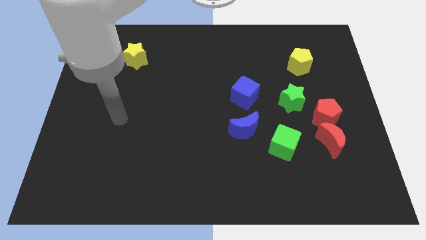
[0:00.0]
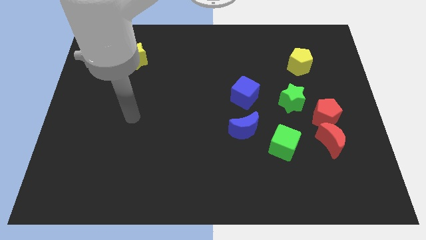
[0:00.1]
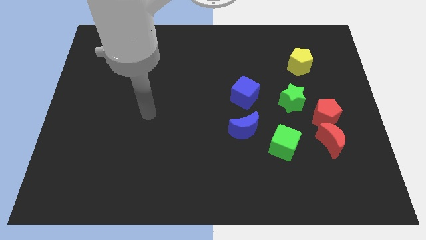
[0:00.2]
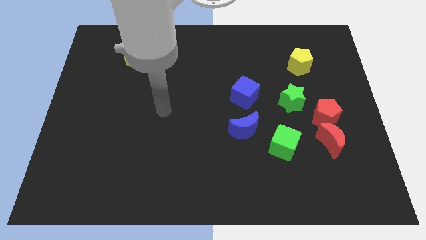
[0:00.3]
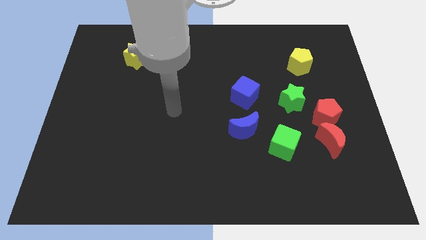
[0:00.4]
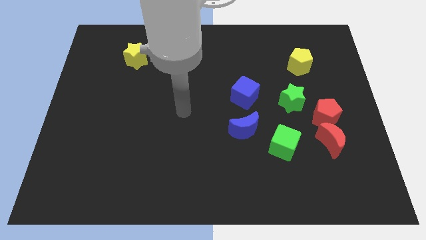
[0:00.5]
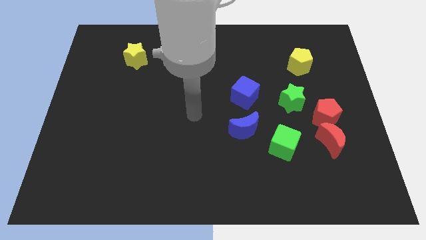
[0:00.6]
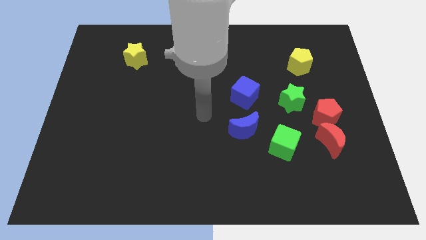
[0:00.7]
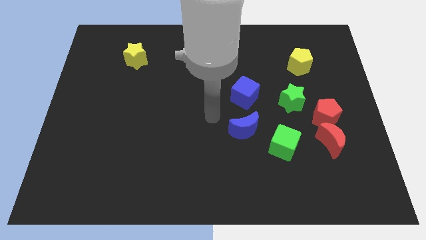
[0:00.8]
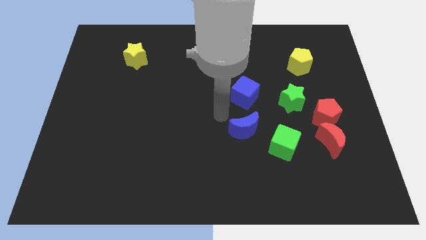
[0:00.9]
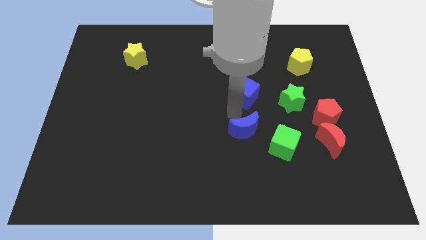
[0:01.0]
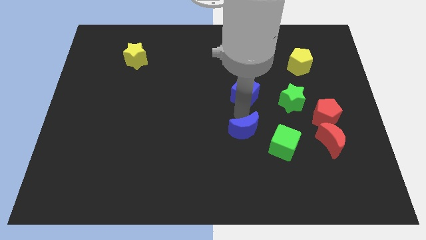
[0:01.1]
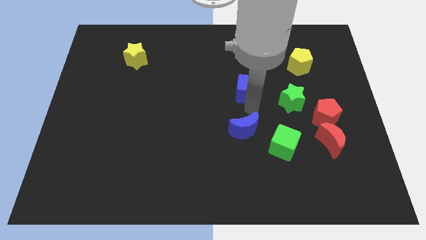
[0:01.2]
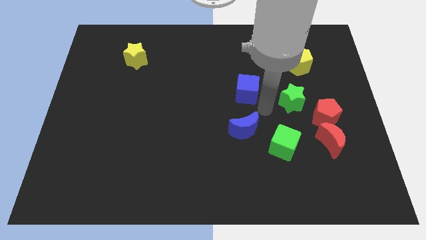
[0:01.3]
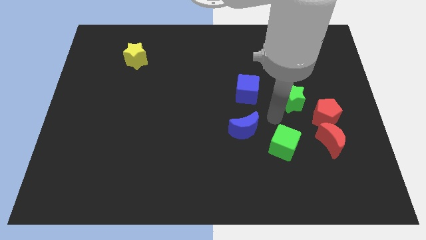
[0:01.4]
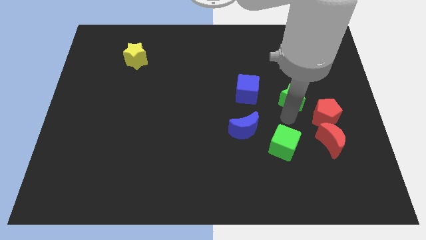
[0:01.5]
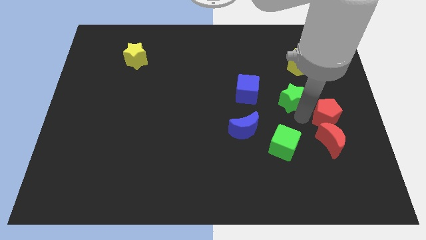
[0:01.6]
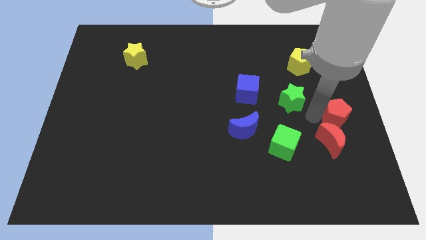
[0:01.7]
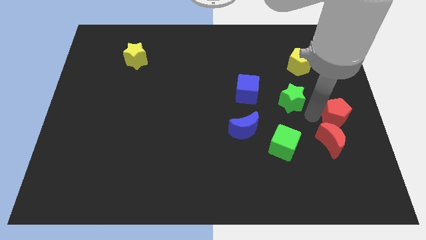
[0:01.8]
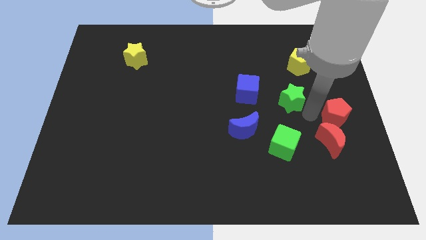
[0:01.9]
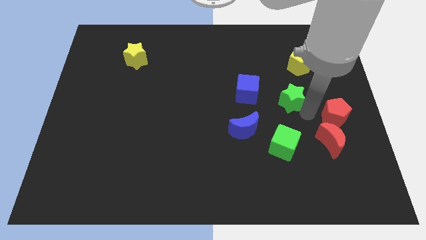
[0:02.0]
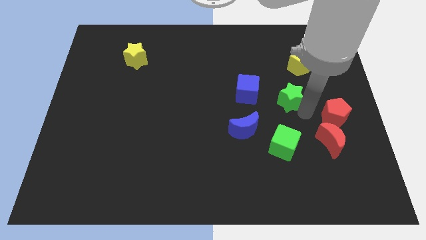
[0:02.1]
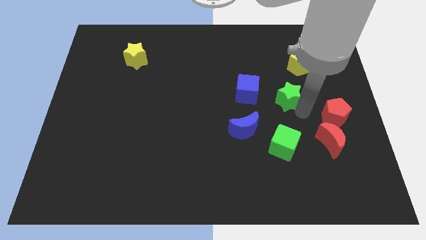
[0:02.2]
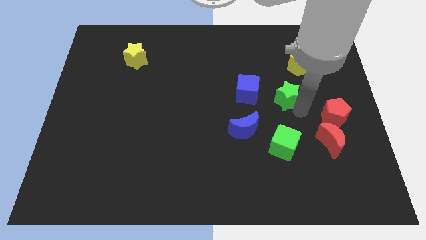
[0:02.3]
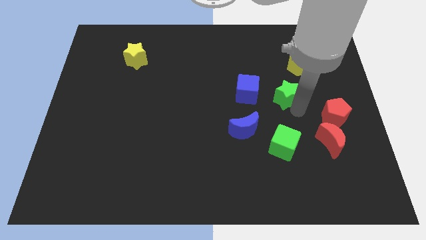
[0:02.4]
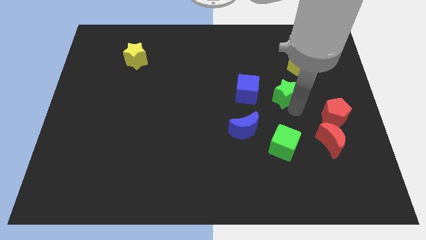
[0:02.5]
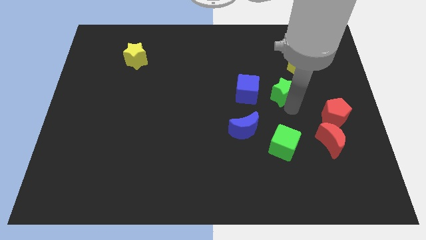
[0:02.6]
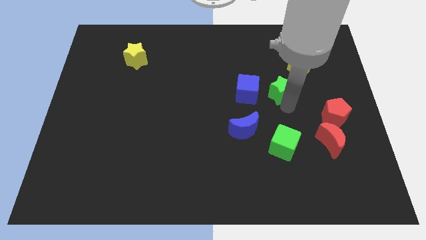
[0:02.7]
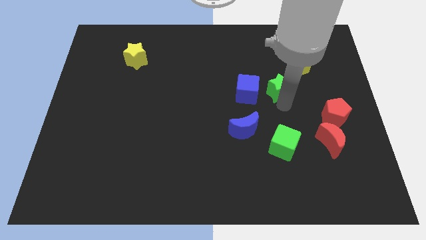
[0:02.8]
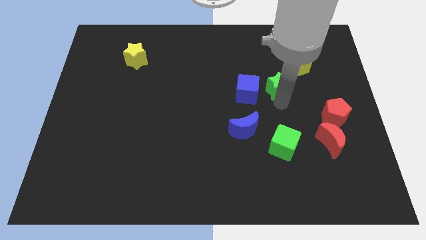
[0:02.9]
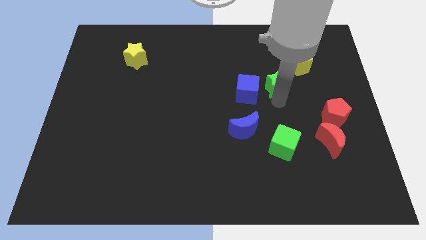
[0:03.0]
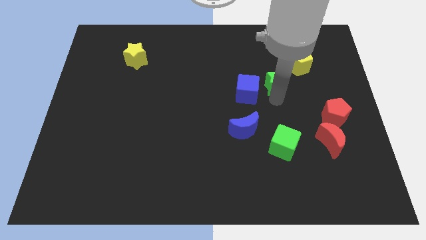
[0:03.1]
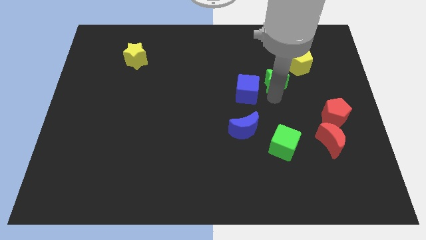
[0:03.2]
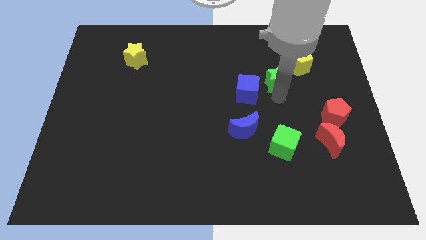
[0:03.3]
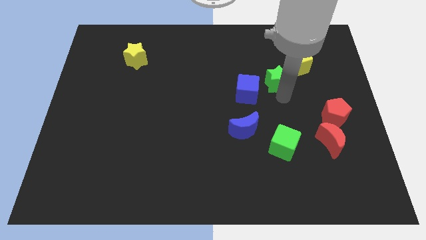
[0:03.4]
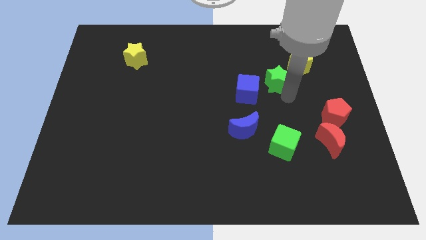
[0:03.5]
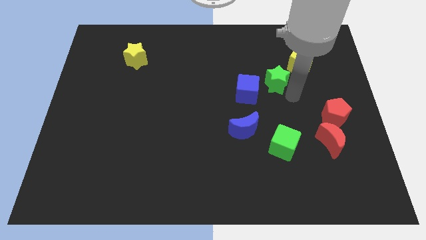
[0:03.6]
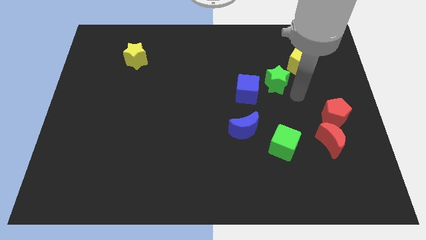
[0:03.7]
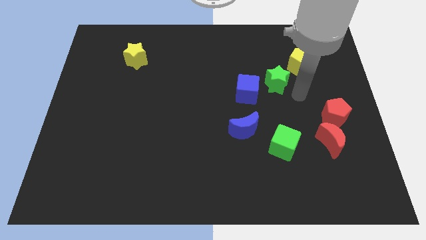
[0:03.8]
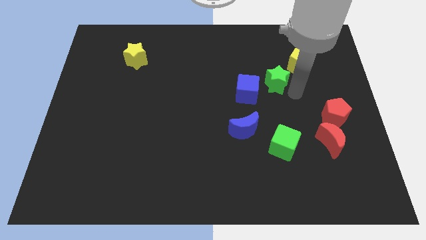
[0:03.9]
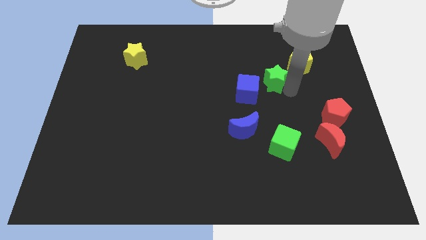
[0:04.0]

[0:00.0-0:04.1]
slide the green star diagonally upwards and to the left a bit

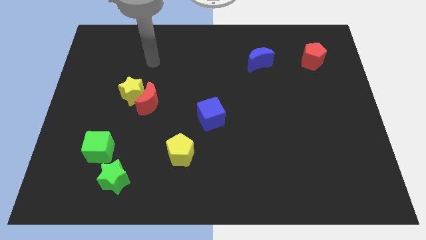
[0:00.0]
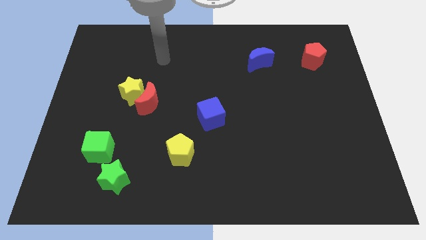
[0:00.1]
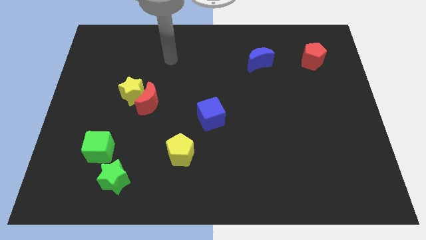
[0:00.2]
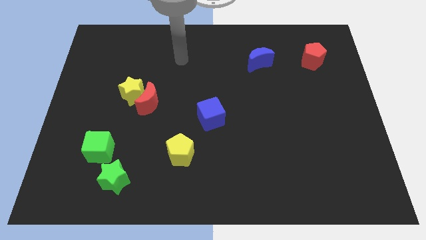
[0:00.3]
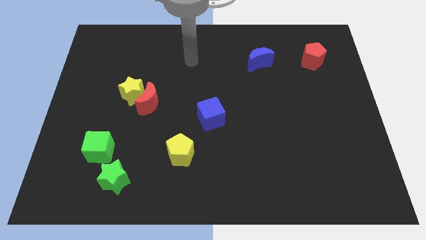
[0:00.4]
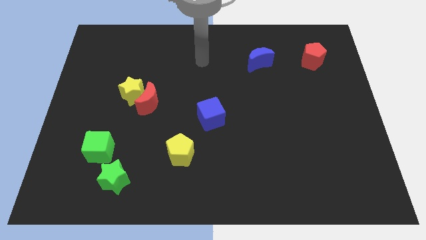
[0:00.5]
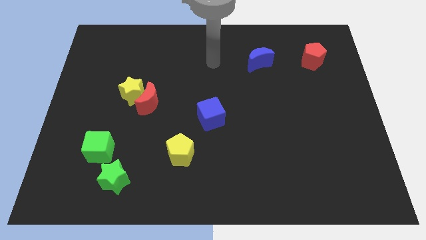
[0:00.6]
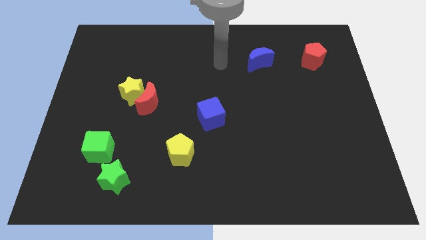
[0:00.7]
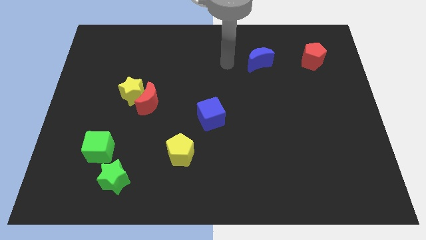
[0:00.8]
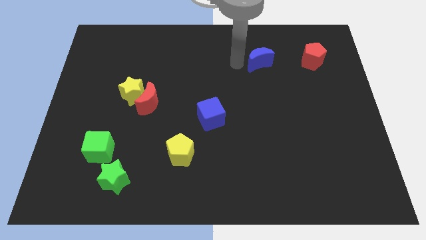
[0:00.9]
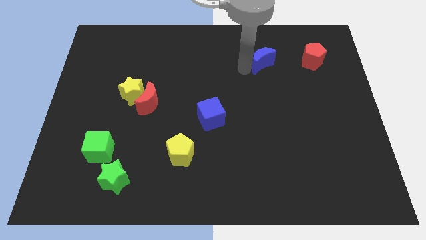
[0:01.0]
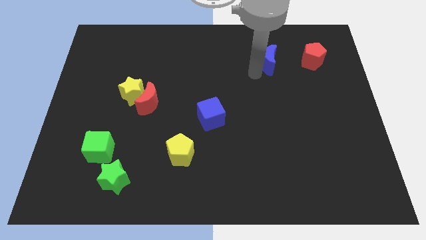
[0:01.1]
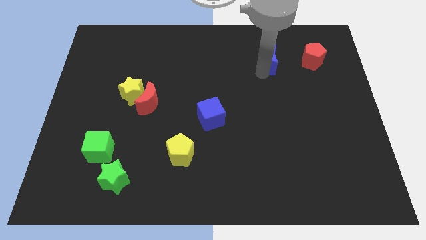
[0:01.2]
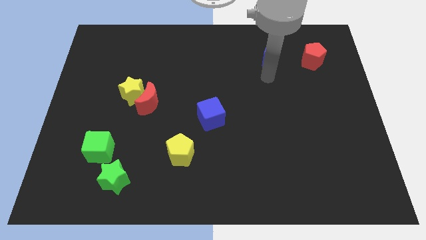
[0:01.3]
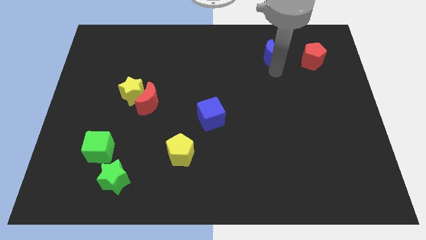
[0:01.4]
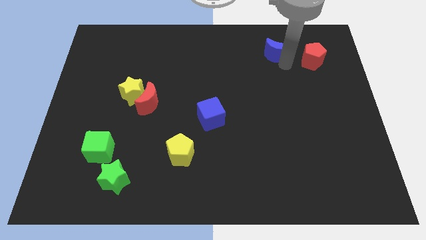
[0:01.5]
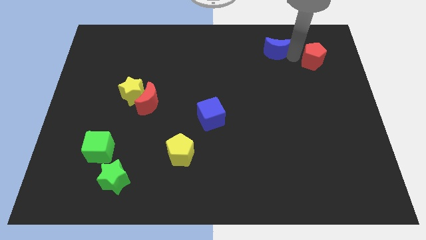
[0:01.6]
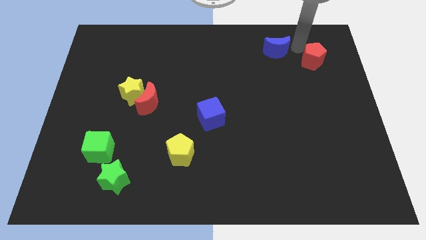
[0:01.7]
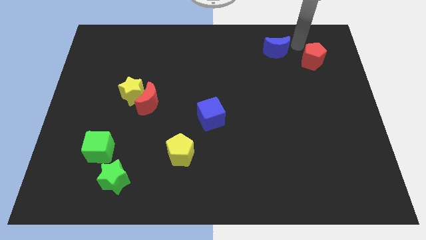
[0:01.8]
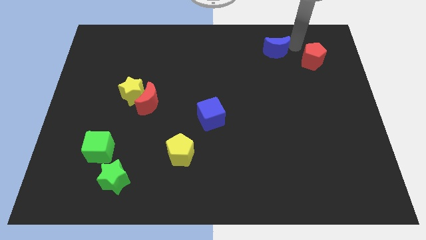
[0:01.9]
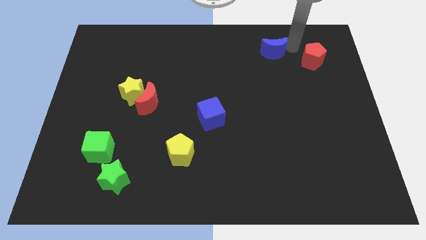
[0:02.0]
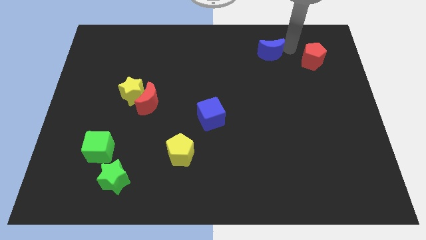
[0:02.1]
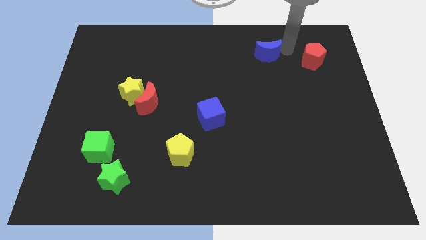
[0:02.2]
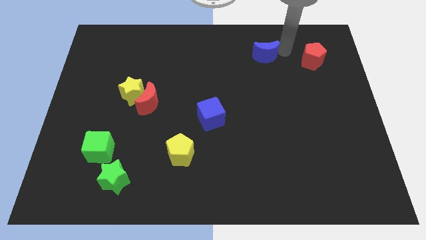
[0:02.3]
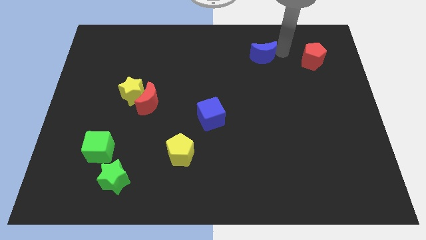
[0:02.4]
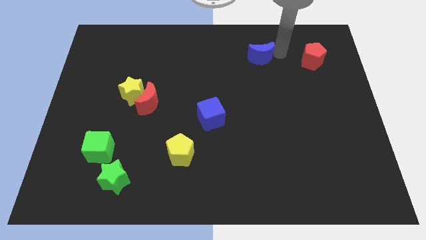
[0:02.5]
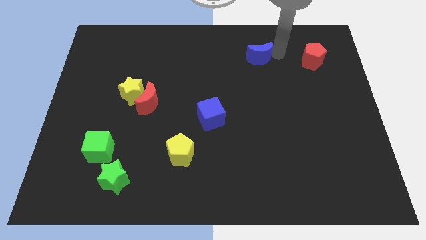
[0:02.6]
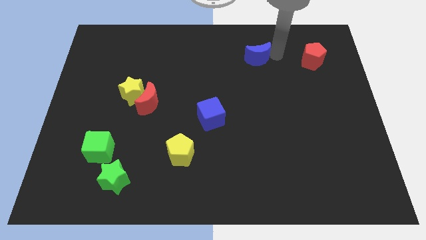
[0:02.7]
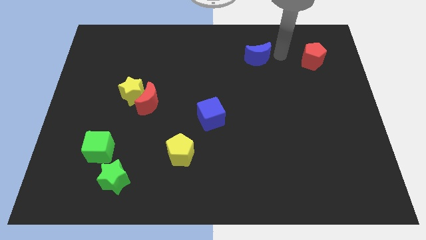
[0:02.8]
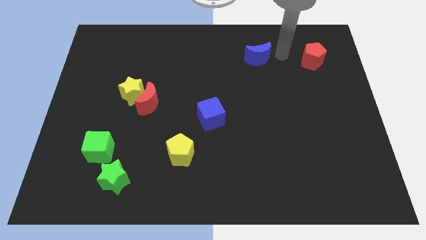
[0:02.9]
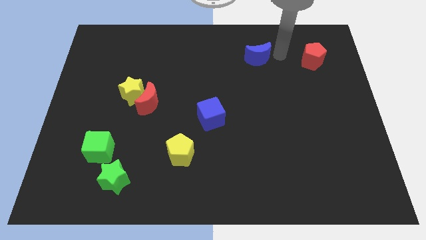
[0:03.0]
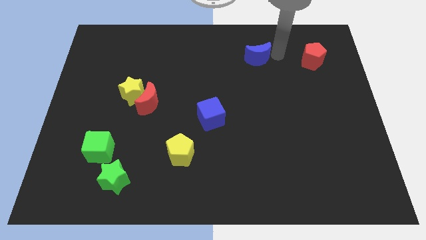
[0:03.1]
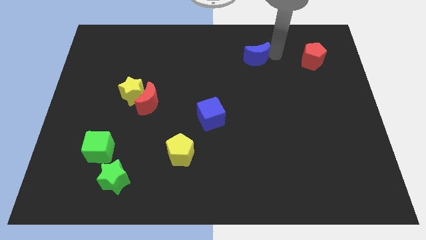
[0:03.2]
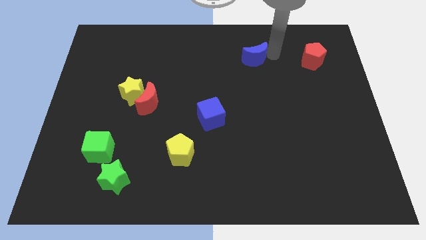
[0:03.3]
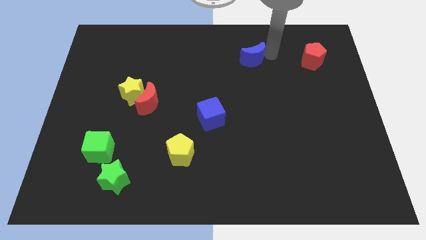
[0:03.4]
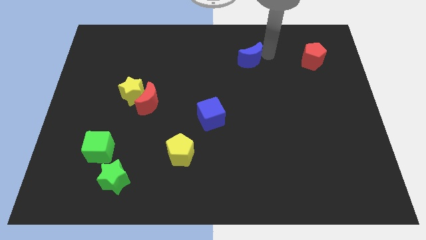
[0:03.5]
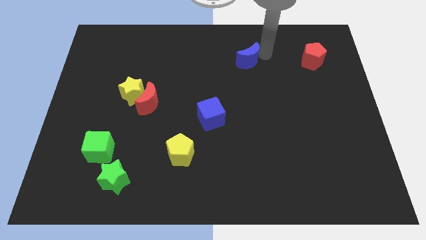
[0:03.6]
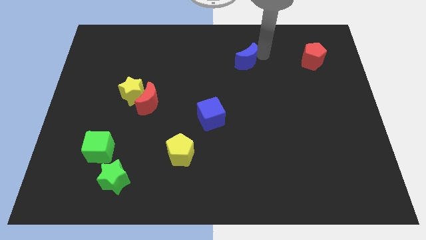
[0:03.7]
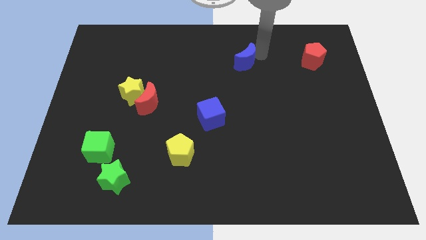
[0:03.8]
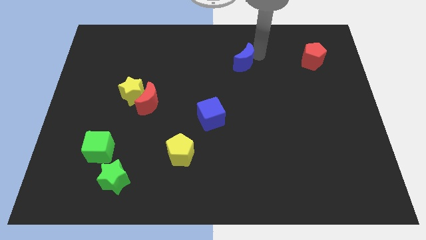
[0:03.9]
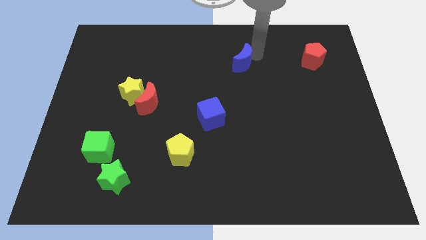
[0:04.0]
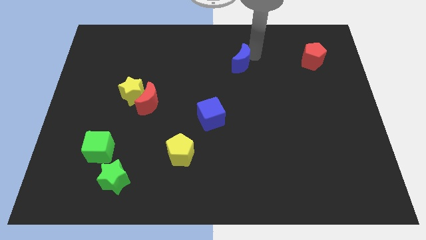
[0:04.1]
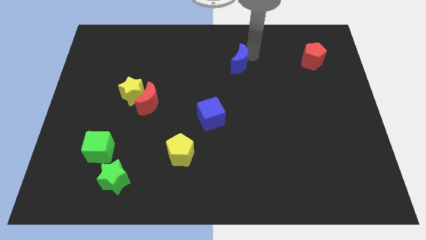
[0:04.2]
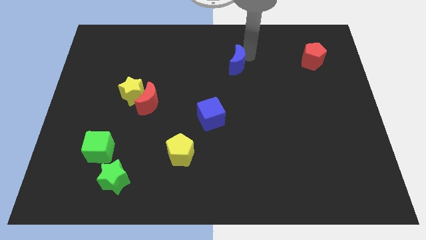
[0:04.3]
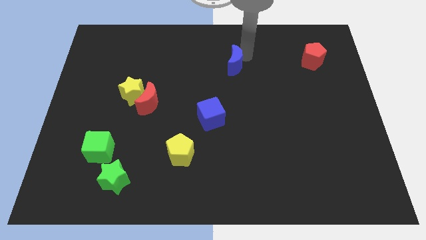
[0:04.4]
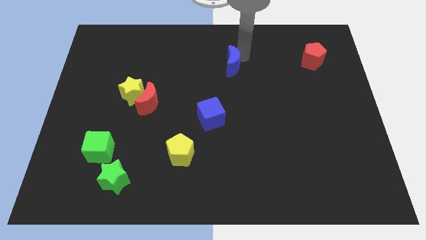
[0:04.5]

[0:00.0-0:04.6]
push the blue moon left a little
